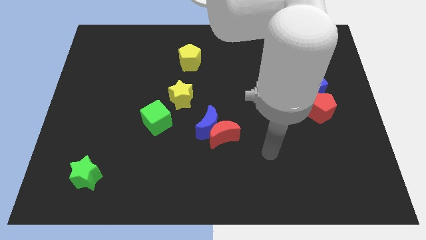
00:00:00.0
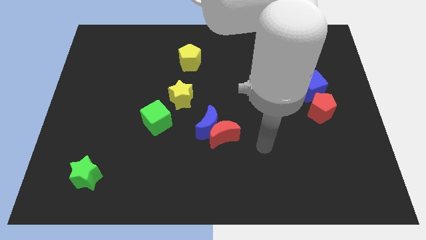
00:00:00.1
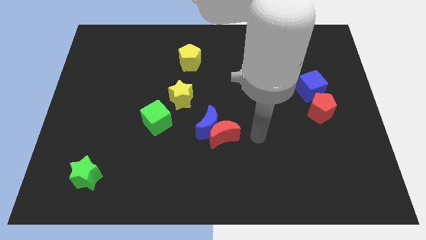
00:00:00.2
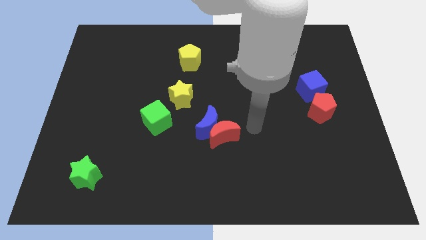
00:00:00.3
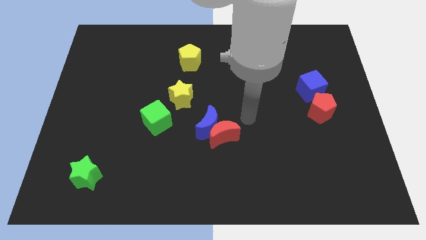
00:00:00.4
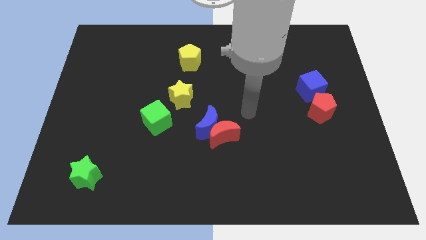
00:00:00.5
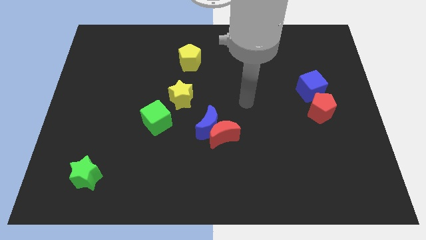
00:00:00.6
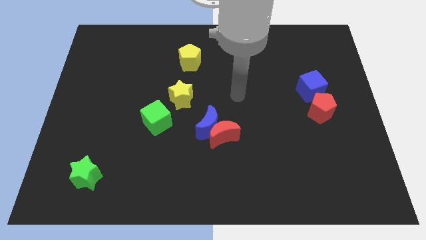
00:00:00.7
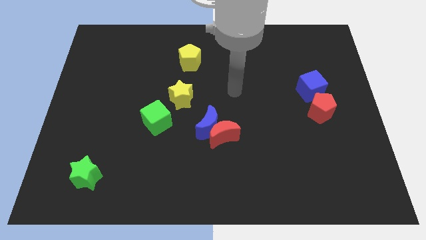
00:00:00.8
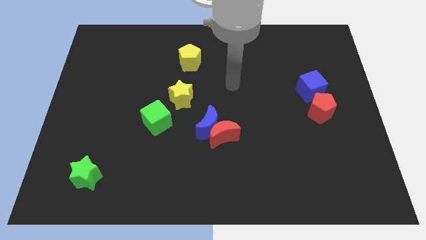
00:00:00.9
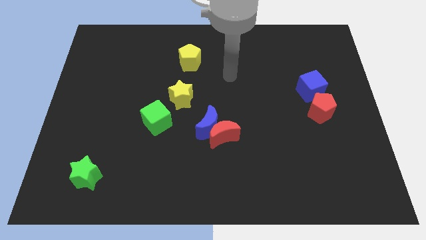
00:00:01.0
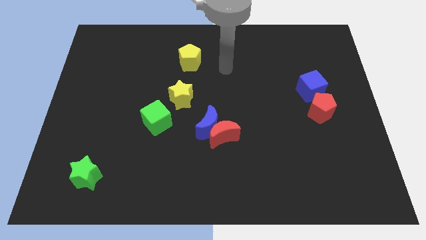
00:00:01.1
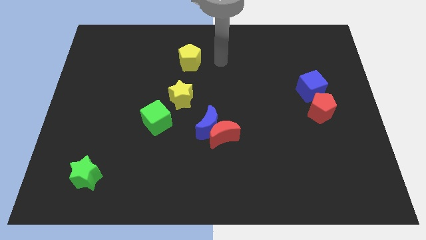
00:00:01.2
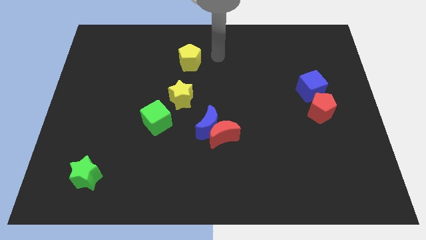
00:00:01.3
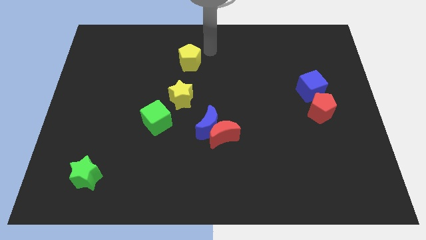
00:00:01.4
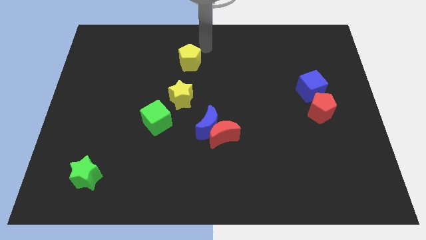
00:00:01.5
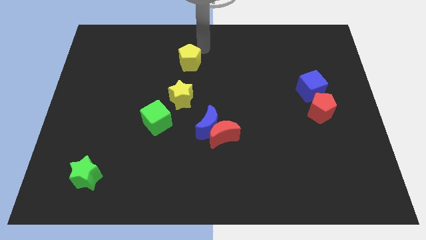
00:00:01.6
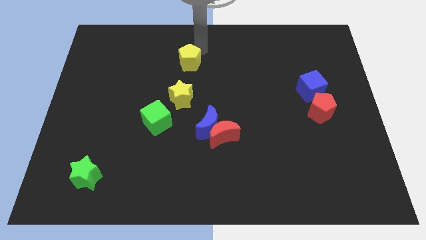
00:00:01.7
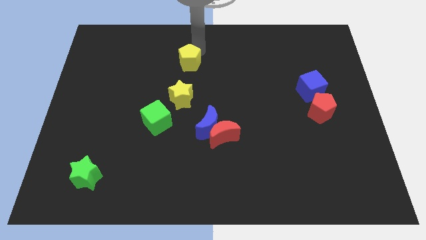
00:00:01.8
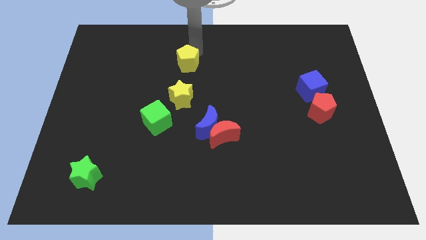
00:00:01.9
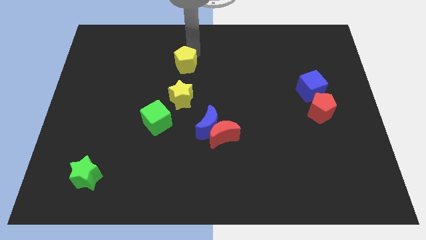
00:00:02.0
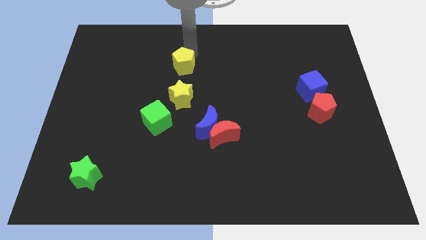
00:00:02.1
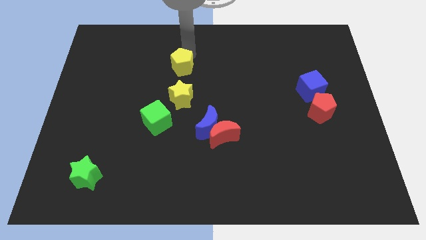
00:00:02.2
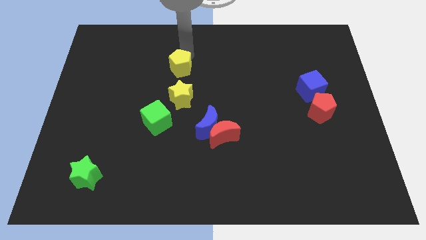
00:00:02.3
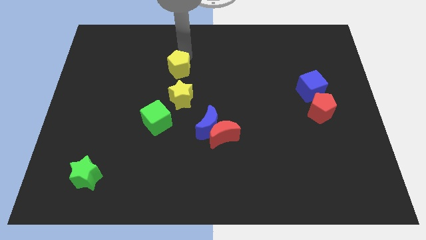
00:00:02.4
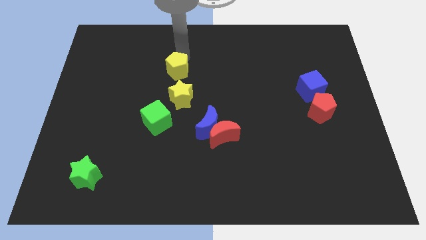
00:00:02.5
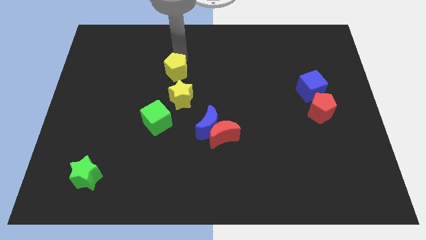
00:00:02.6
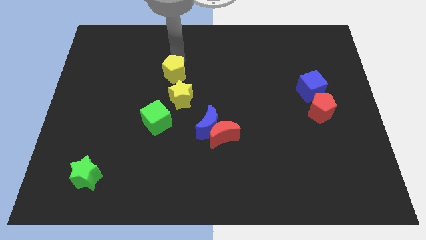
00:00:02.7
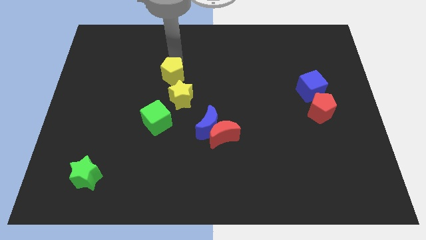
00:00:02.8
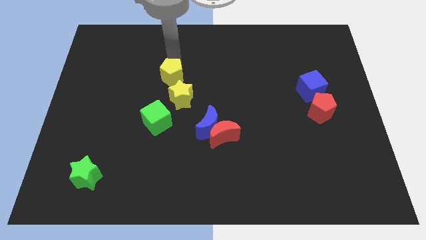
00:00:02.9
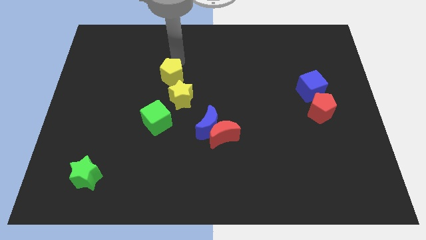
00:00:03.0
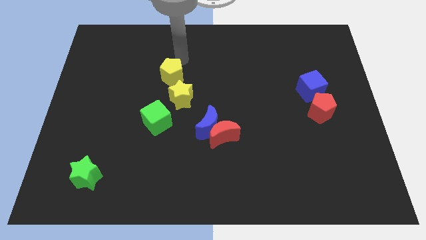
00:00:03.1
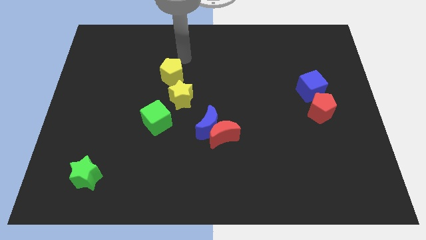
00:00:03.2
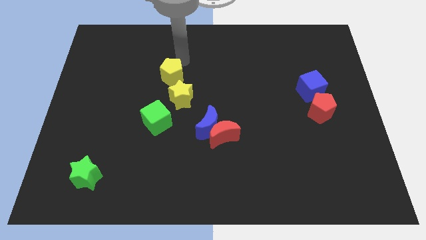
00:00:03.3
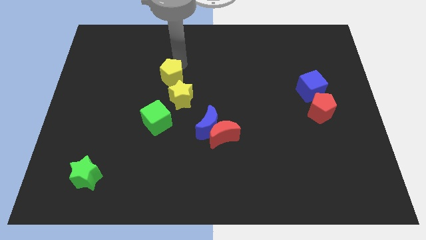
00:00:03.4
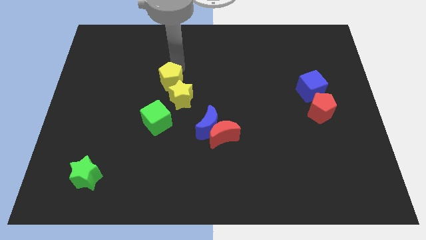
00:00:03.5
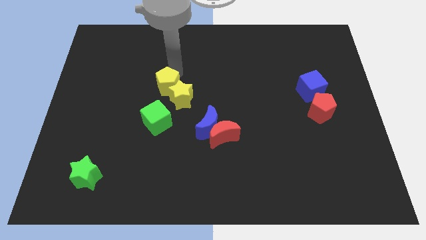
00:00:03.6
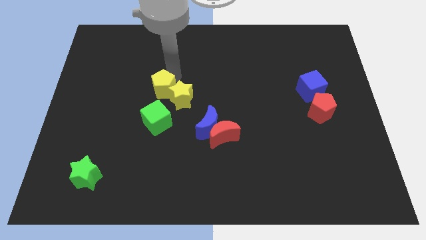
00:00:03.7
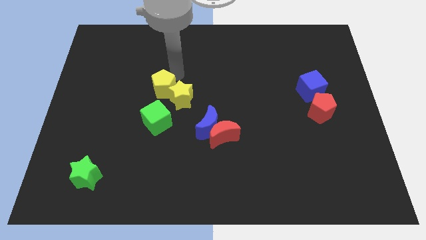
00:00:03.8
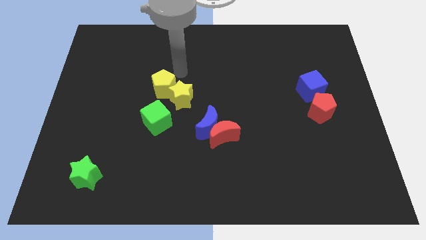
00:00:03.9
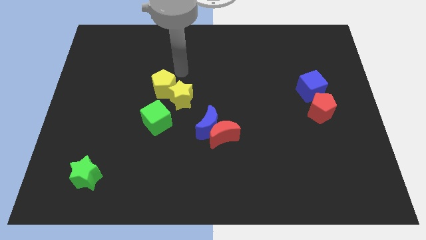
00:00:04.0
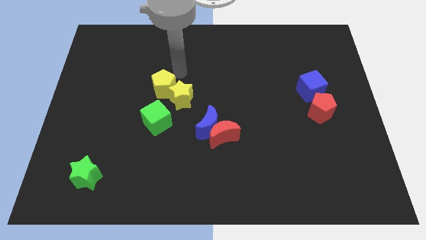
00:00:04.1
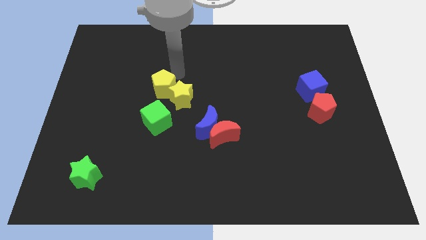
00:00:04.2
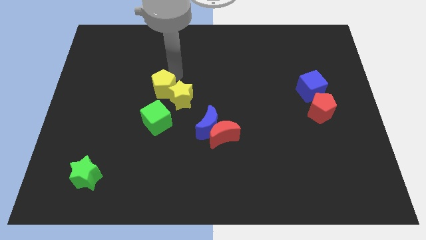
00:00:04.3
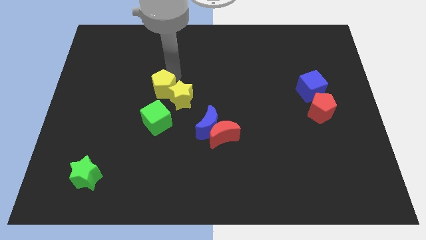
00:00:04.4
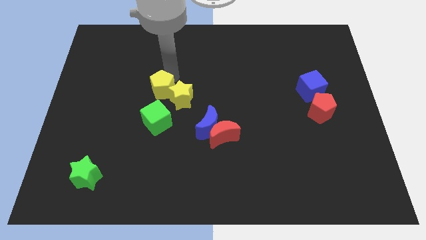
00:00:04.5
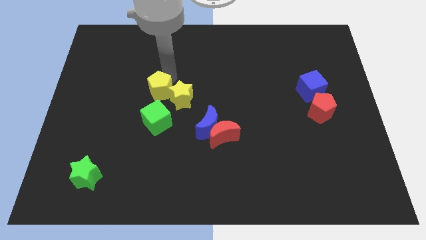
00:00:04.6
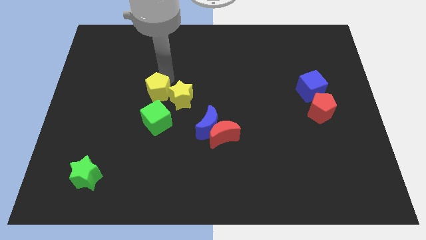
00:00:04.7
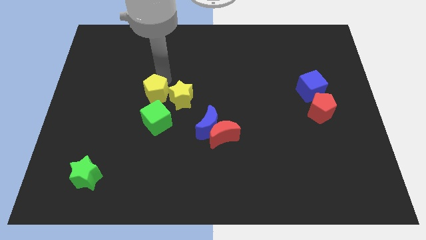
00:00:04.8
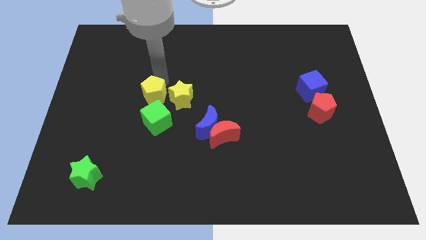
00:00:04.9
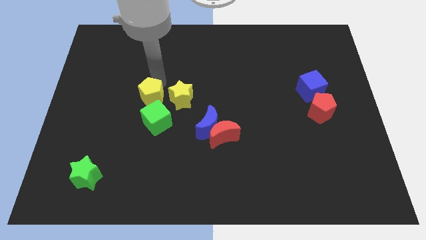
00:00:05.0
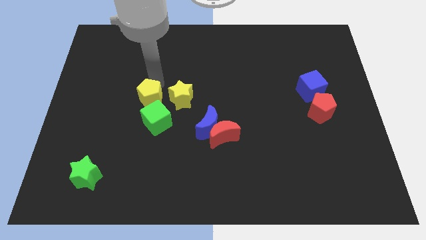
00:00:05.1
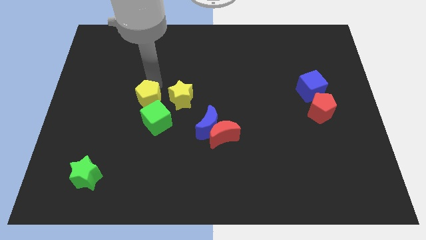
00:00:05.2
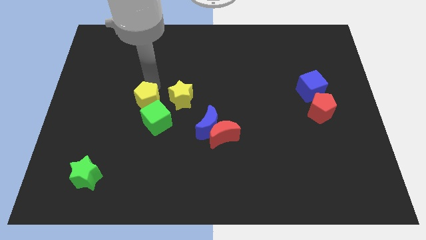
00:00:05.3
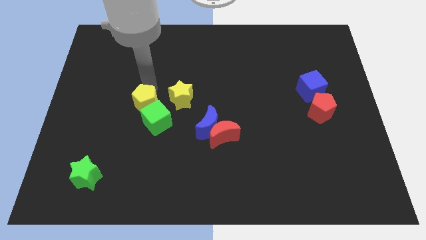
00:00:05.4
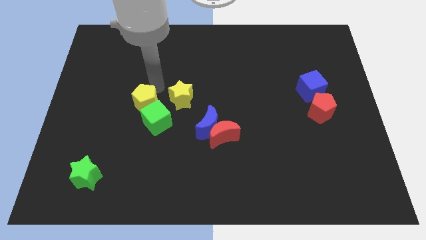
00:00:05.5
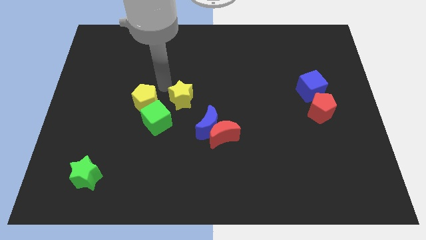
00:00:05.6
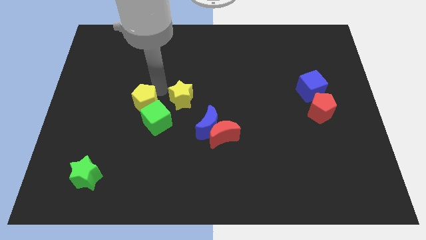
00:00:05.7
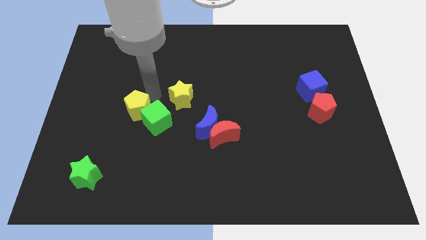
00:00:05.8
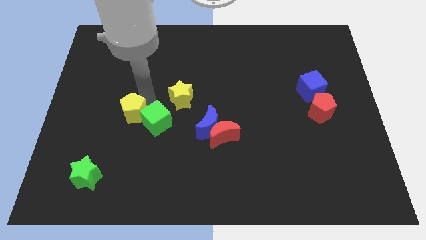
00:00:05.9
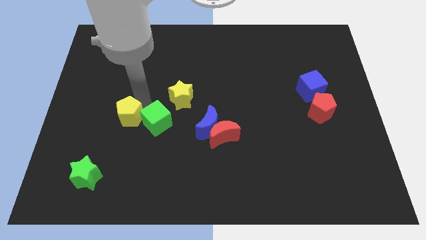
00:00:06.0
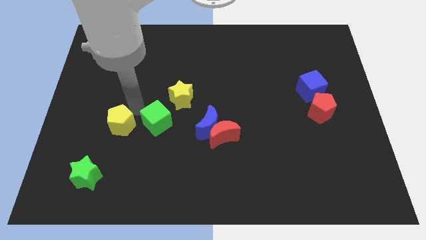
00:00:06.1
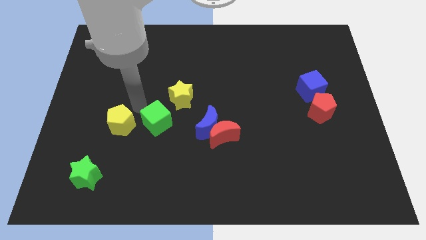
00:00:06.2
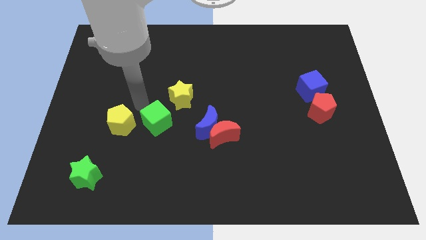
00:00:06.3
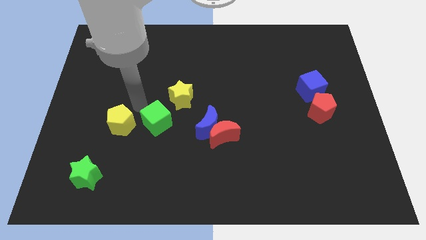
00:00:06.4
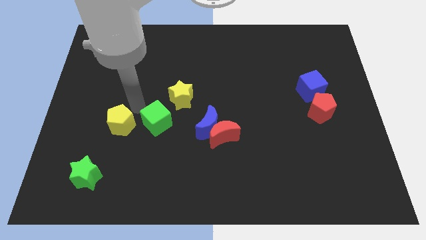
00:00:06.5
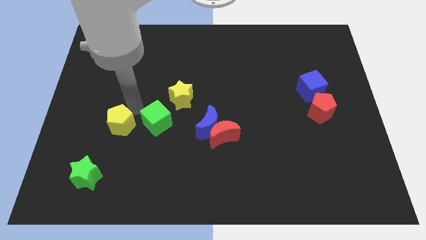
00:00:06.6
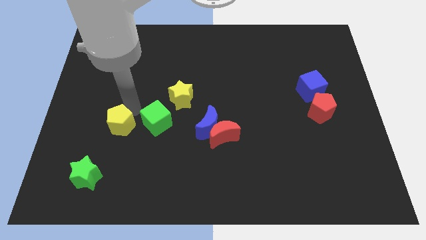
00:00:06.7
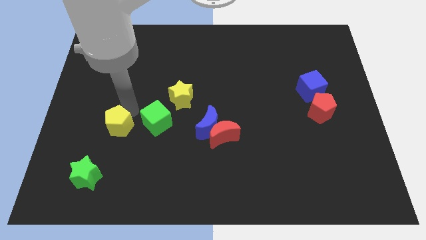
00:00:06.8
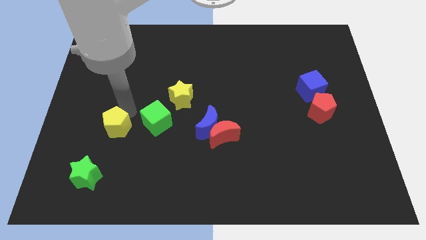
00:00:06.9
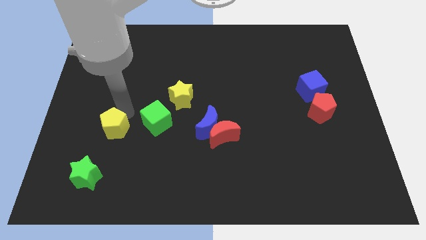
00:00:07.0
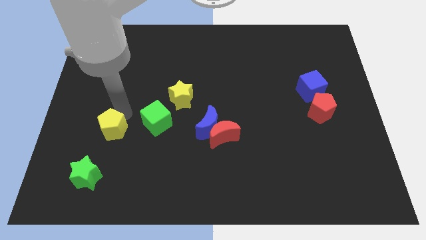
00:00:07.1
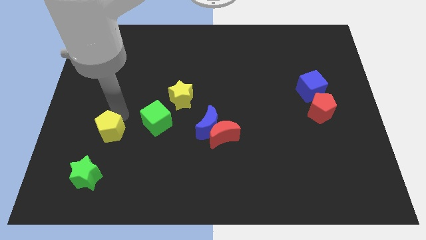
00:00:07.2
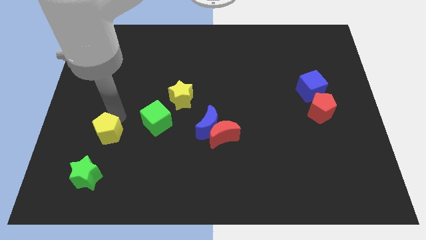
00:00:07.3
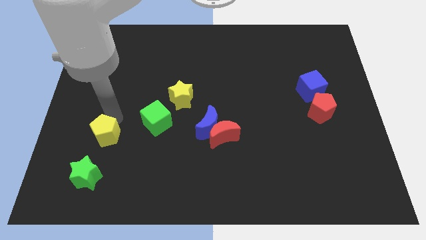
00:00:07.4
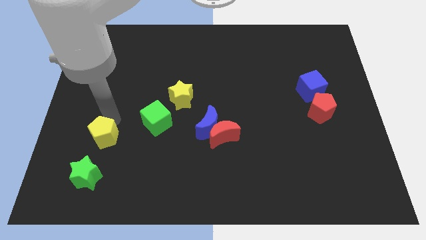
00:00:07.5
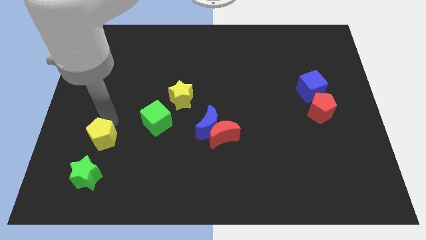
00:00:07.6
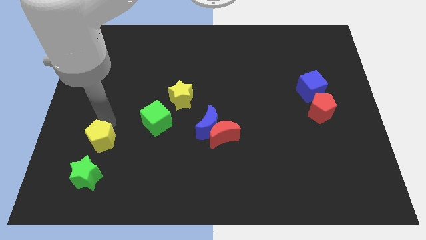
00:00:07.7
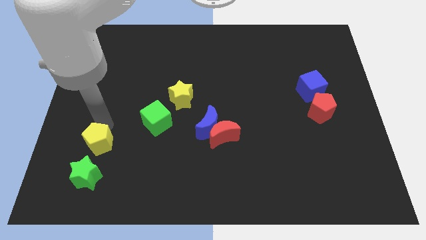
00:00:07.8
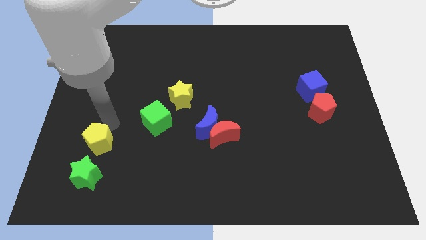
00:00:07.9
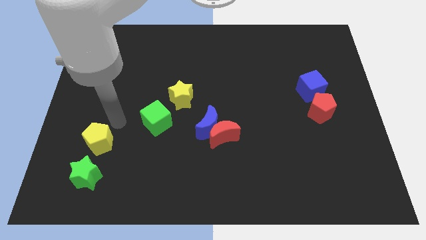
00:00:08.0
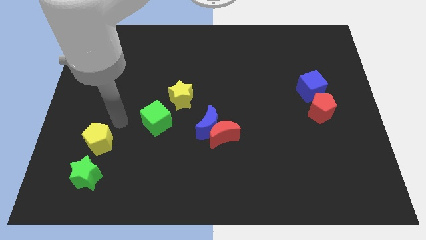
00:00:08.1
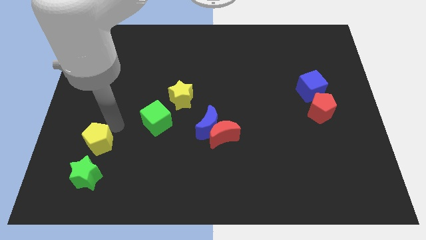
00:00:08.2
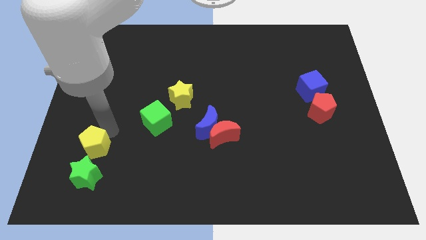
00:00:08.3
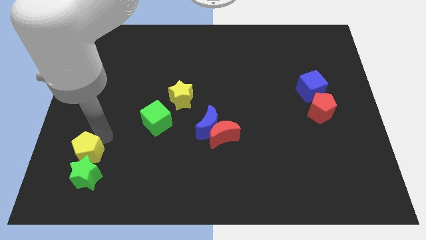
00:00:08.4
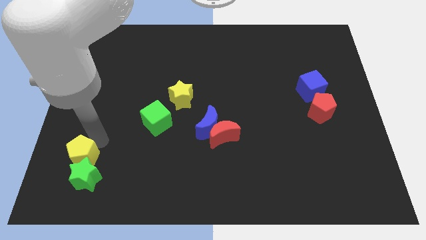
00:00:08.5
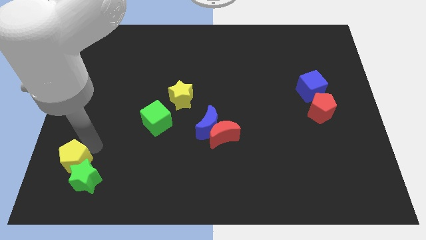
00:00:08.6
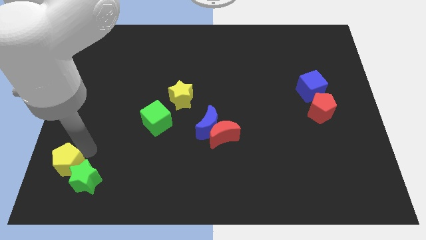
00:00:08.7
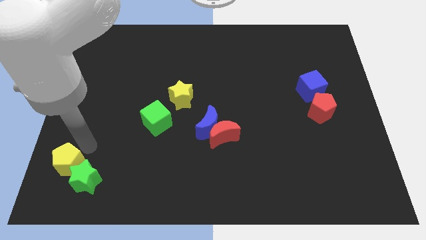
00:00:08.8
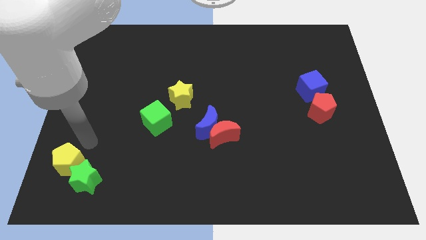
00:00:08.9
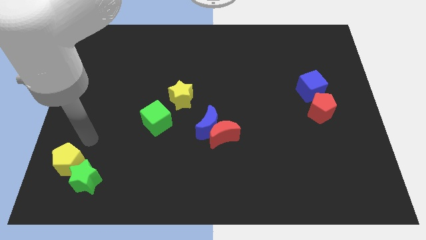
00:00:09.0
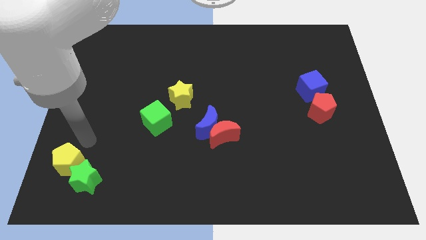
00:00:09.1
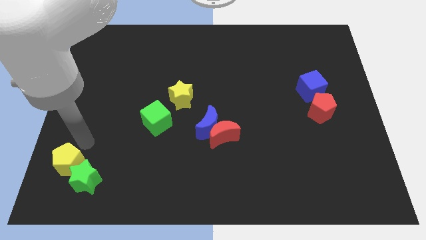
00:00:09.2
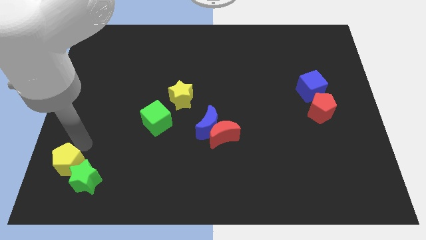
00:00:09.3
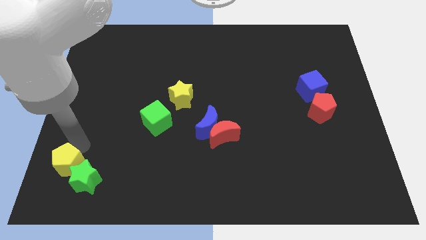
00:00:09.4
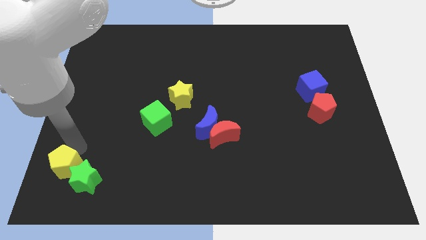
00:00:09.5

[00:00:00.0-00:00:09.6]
push the yellow pentagon to the bottom left corner
